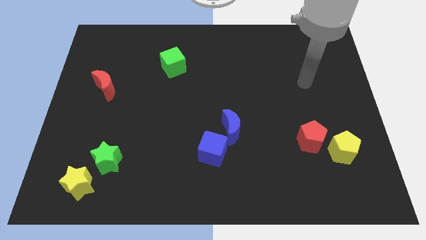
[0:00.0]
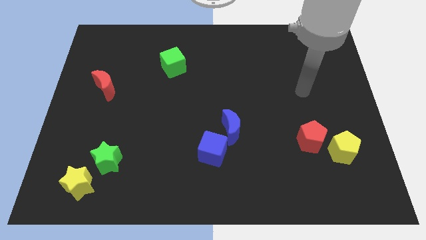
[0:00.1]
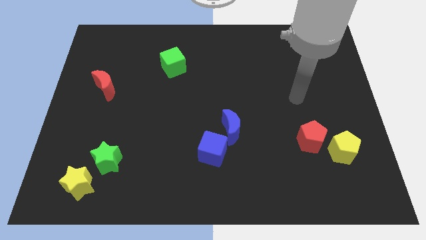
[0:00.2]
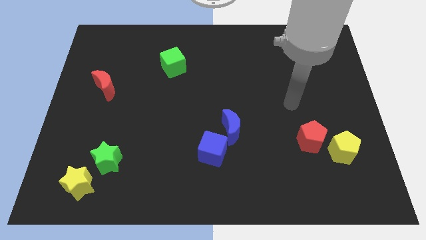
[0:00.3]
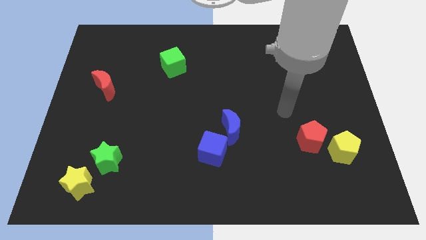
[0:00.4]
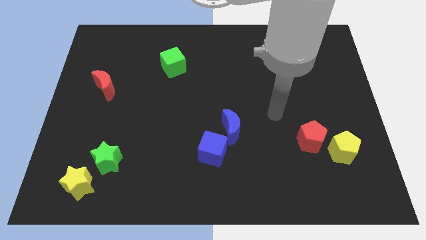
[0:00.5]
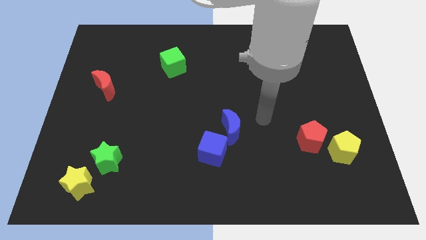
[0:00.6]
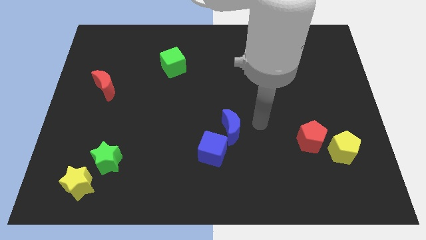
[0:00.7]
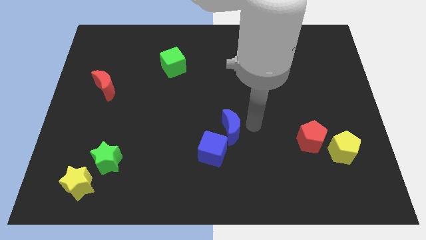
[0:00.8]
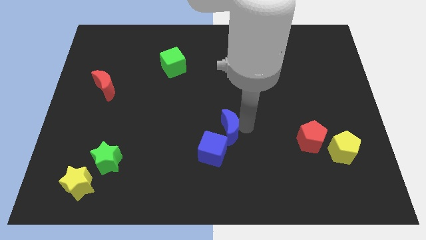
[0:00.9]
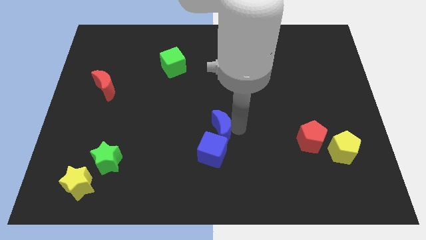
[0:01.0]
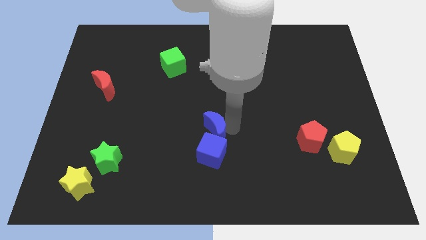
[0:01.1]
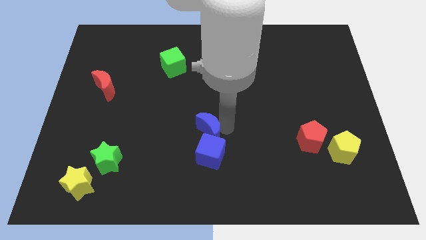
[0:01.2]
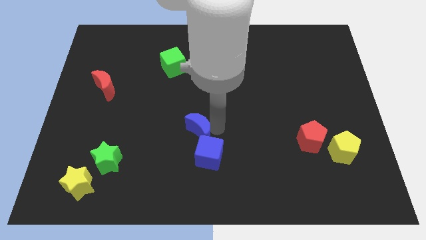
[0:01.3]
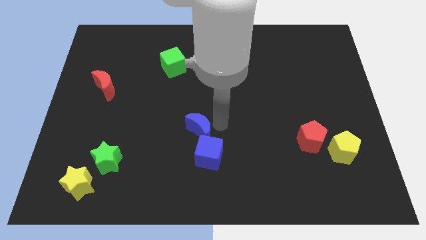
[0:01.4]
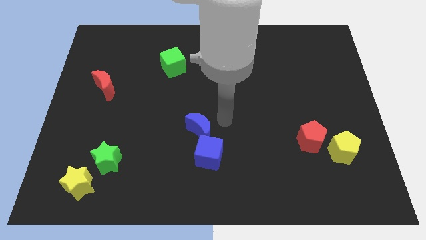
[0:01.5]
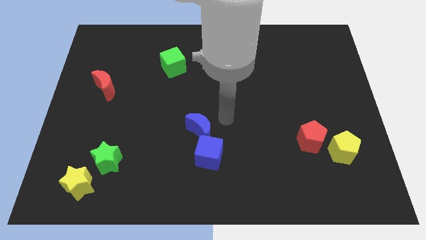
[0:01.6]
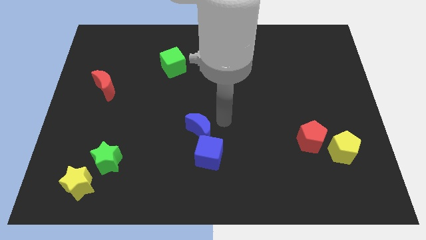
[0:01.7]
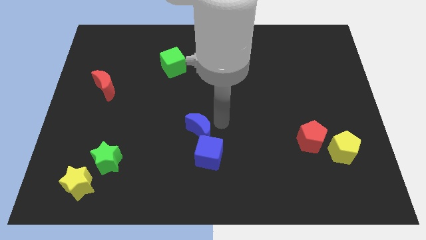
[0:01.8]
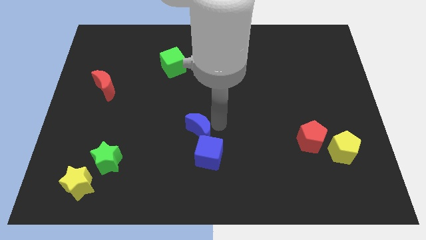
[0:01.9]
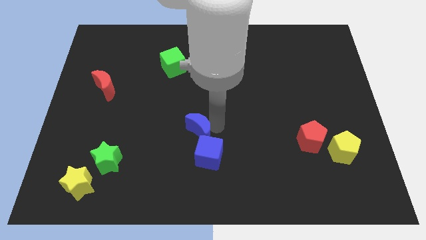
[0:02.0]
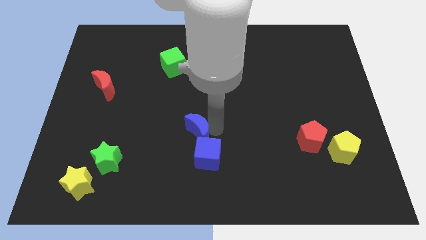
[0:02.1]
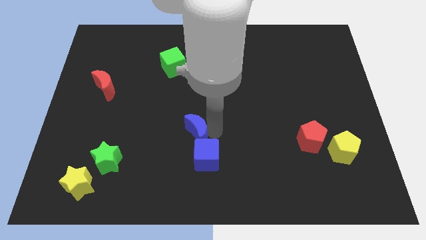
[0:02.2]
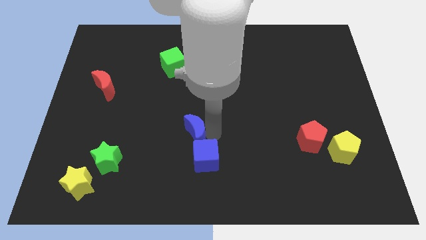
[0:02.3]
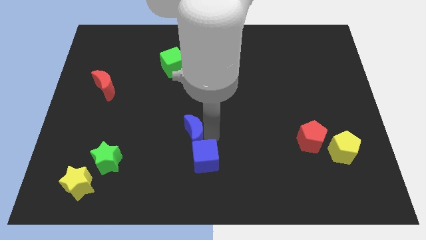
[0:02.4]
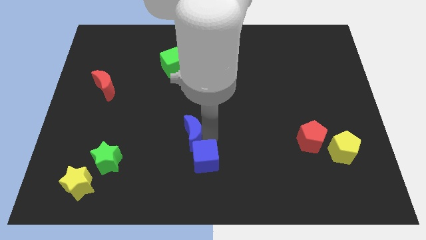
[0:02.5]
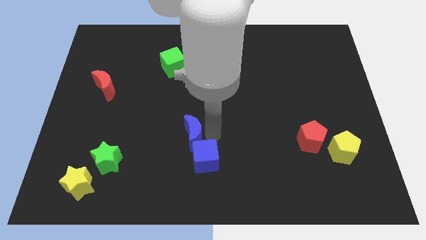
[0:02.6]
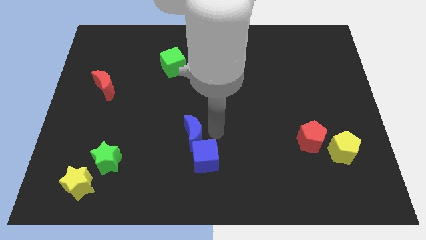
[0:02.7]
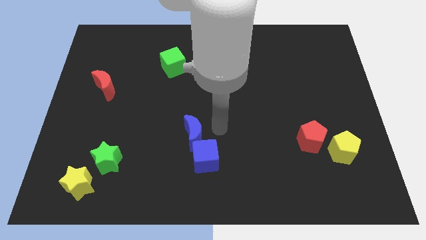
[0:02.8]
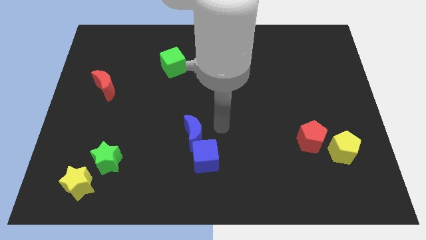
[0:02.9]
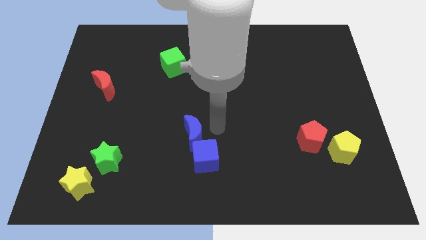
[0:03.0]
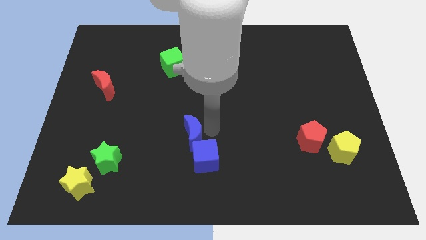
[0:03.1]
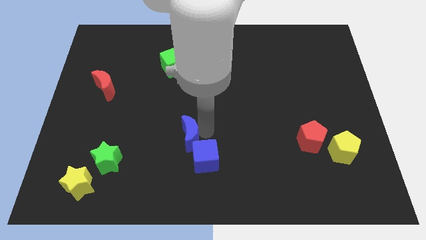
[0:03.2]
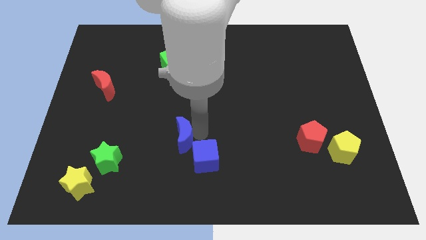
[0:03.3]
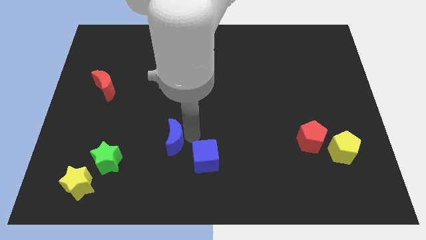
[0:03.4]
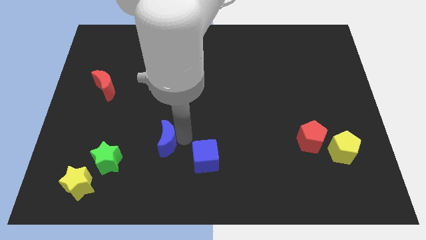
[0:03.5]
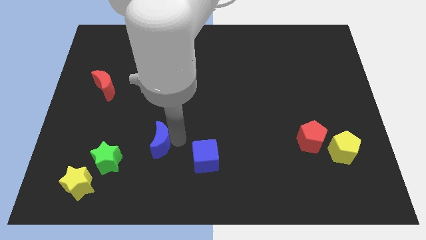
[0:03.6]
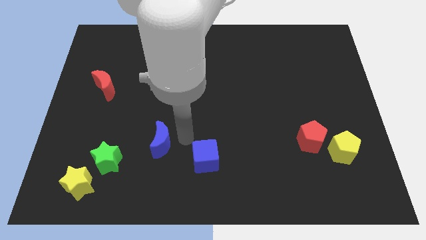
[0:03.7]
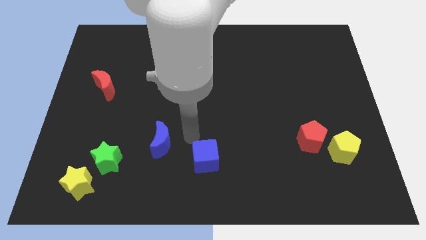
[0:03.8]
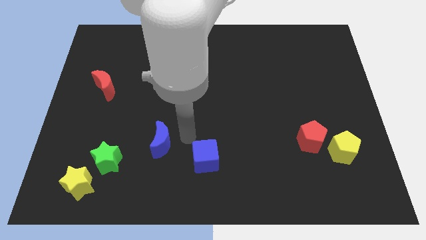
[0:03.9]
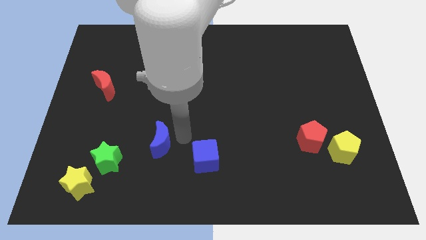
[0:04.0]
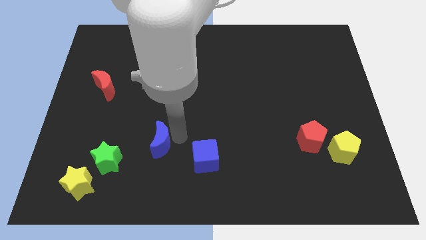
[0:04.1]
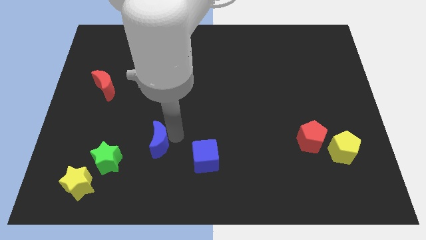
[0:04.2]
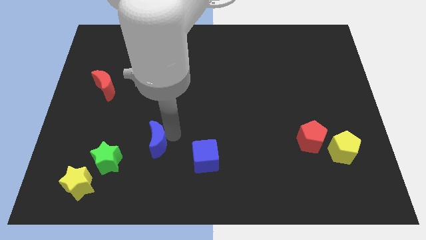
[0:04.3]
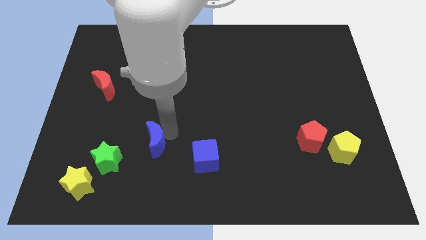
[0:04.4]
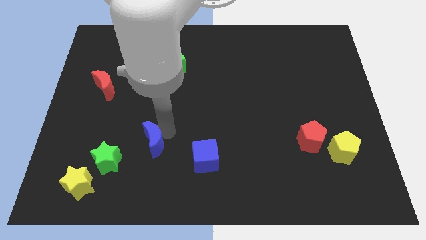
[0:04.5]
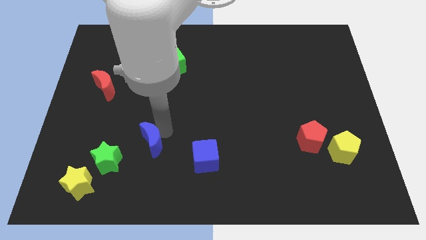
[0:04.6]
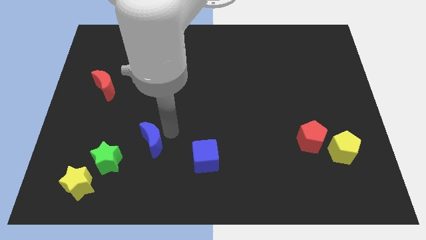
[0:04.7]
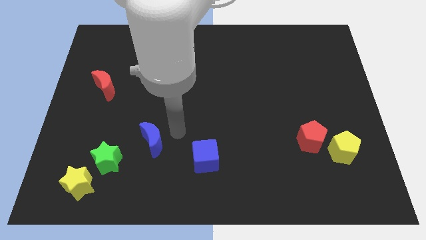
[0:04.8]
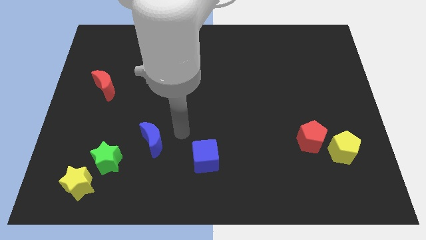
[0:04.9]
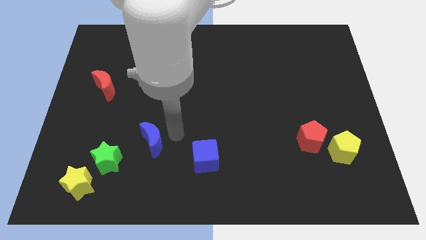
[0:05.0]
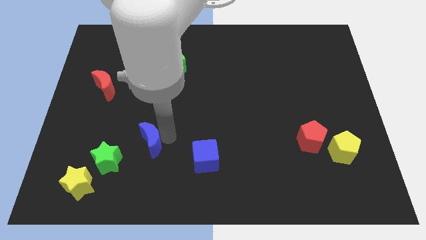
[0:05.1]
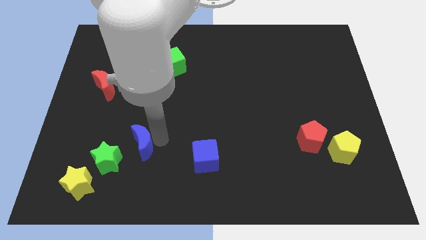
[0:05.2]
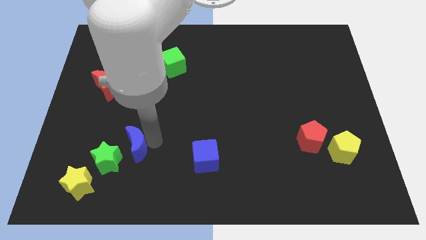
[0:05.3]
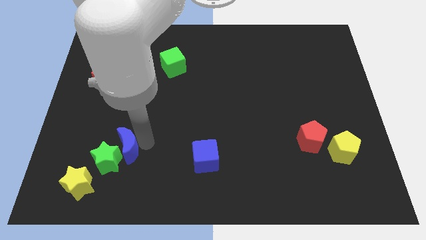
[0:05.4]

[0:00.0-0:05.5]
push the blue moon to the top right side of the yellow star

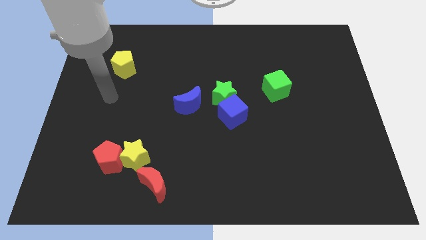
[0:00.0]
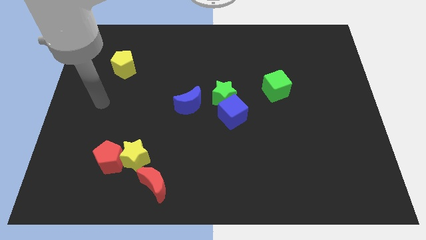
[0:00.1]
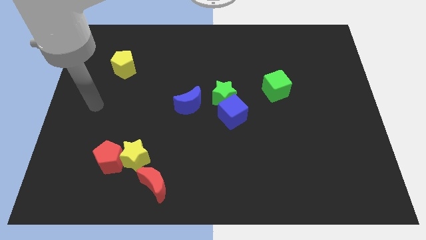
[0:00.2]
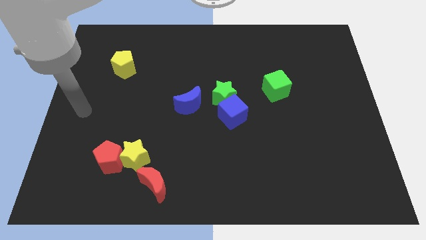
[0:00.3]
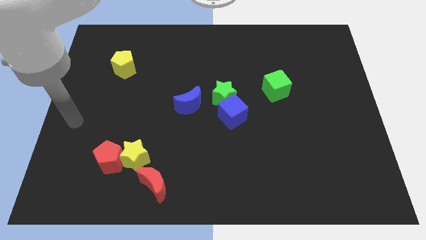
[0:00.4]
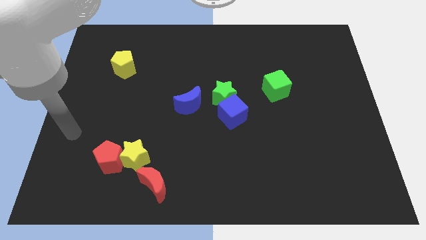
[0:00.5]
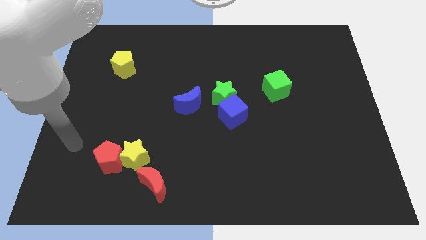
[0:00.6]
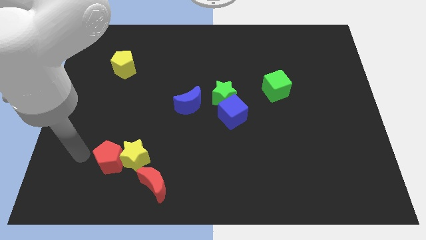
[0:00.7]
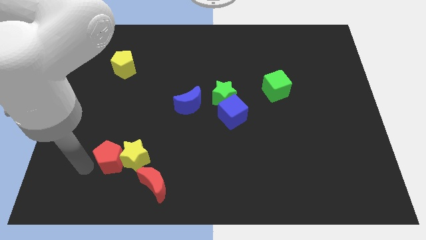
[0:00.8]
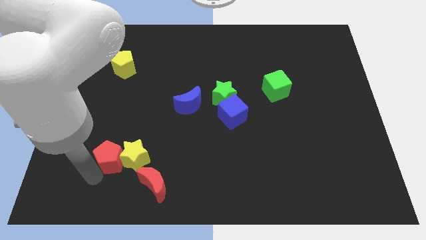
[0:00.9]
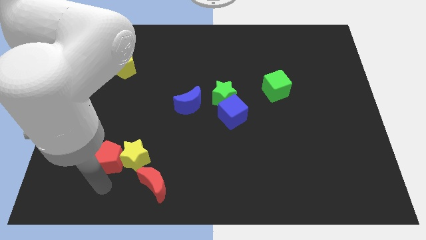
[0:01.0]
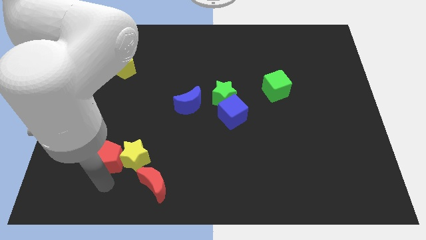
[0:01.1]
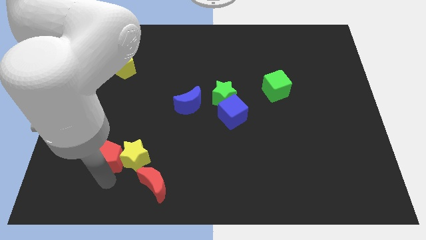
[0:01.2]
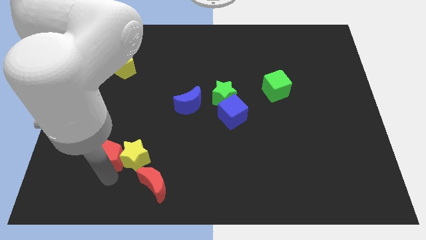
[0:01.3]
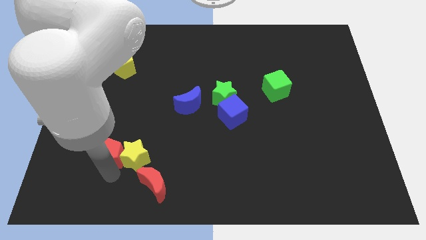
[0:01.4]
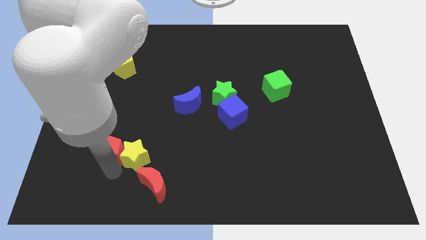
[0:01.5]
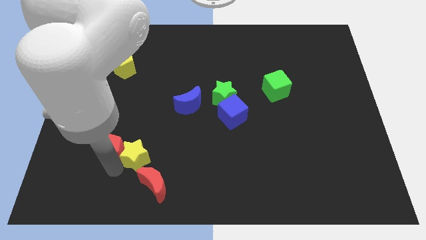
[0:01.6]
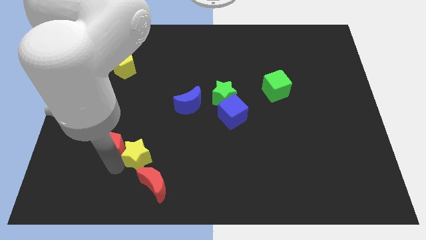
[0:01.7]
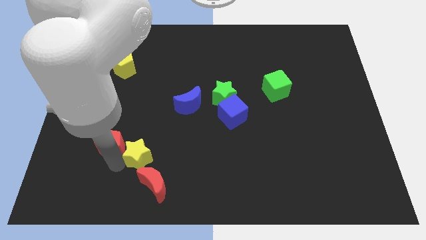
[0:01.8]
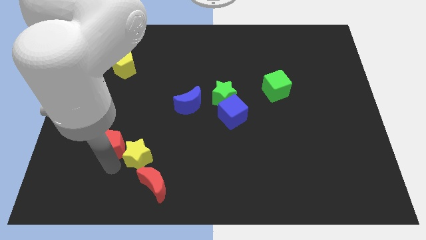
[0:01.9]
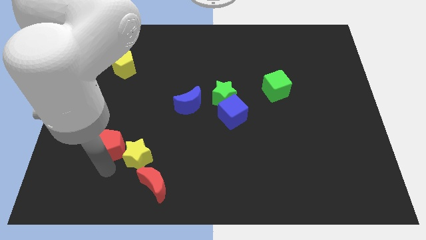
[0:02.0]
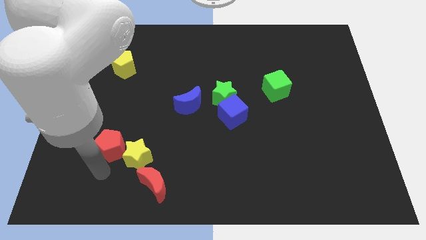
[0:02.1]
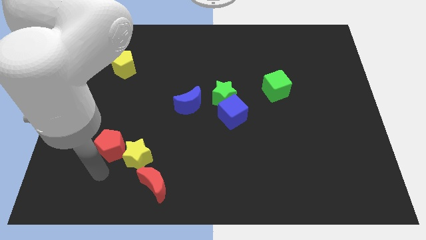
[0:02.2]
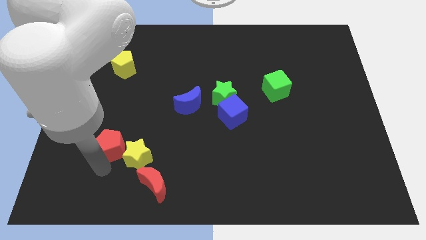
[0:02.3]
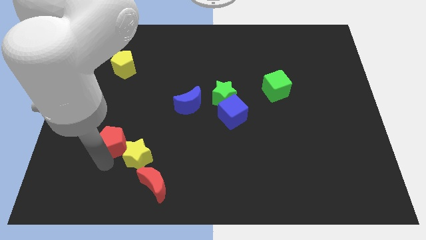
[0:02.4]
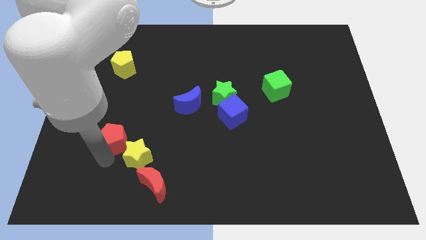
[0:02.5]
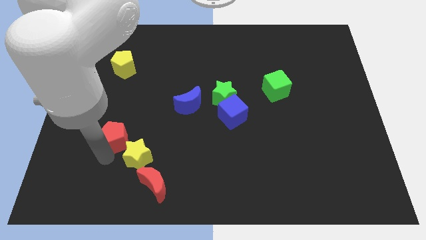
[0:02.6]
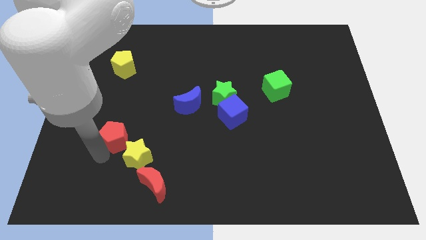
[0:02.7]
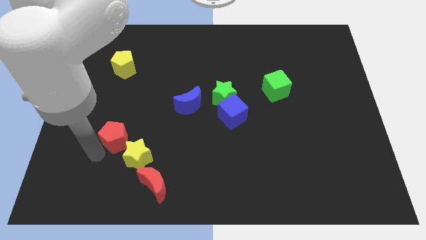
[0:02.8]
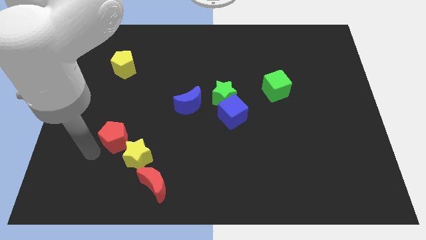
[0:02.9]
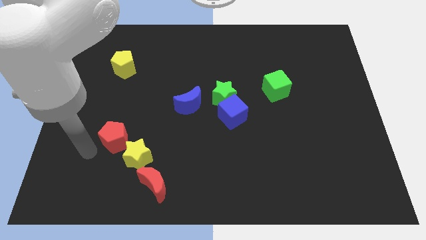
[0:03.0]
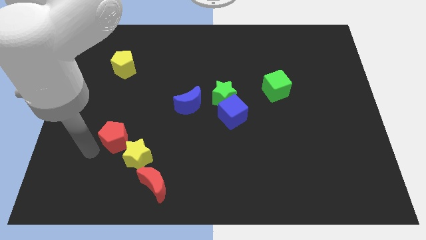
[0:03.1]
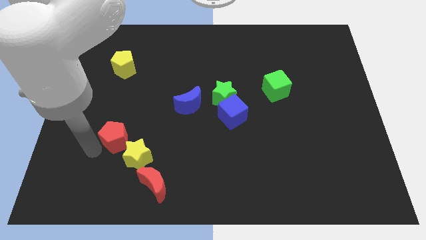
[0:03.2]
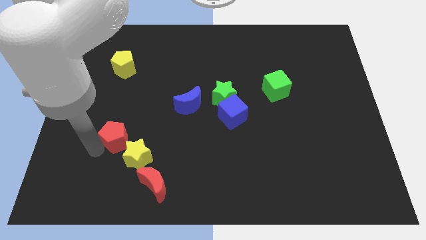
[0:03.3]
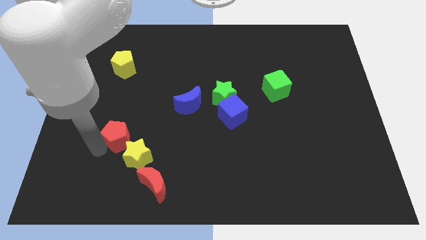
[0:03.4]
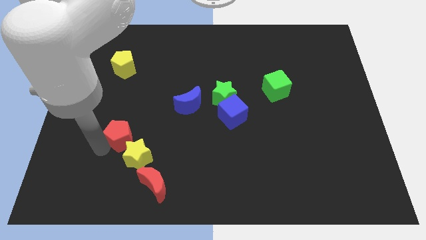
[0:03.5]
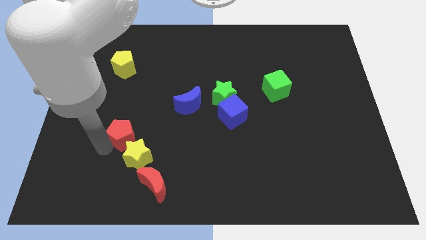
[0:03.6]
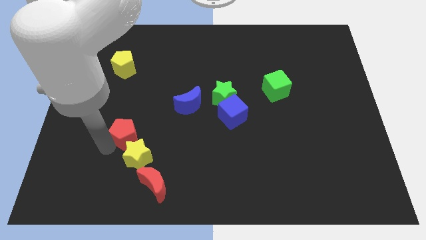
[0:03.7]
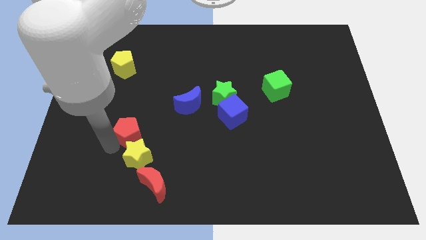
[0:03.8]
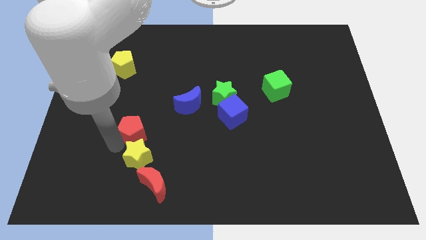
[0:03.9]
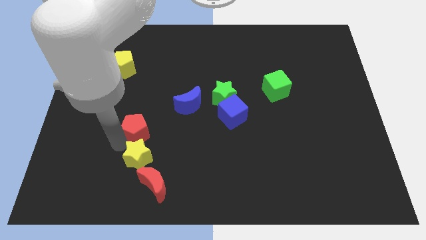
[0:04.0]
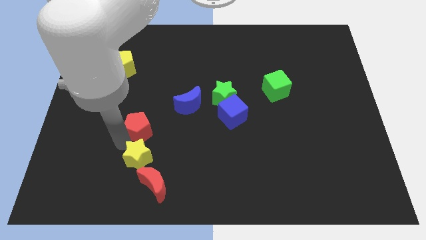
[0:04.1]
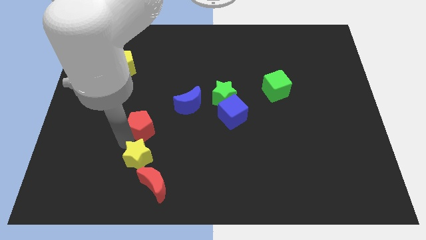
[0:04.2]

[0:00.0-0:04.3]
slide the red pentagon to the bottom left side of the blue moon
